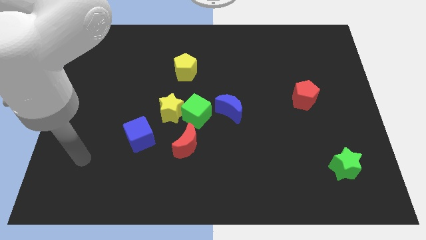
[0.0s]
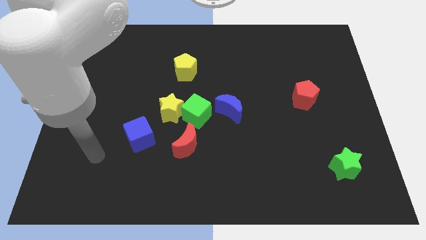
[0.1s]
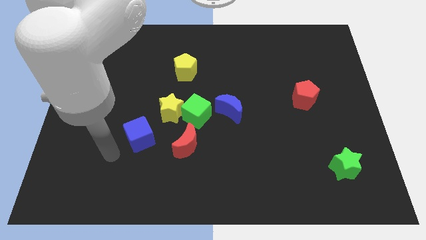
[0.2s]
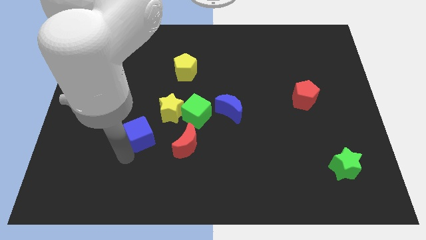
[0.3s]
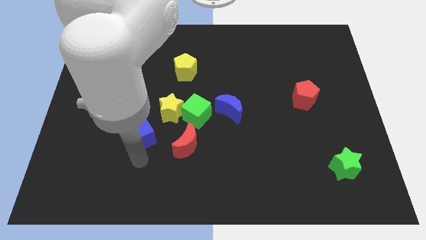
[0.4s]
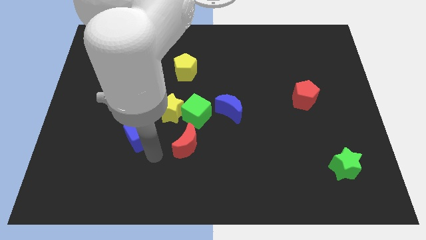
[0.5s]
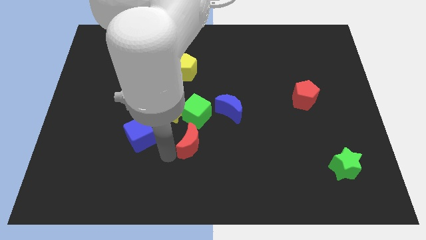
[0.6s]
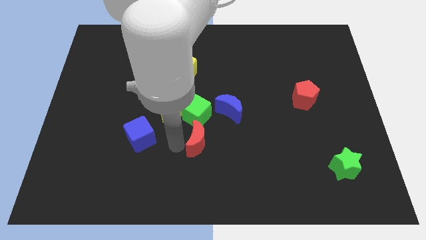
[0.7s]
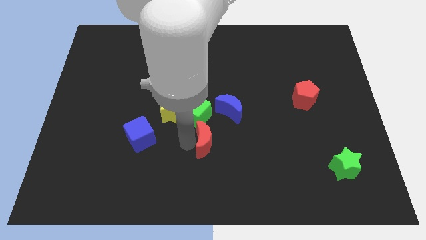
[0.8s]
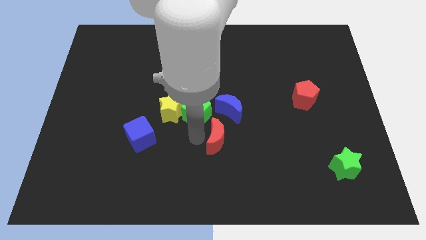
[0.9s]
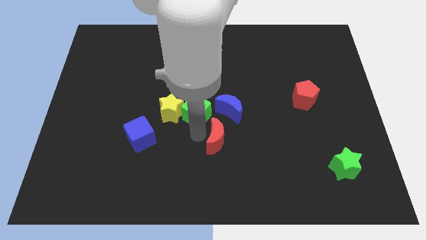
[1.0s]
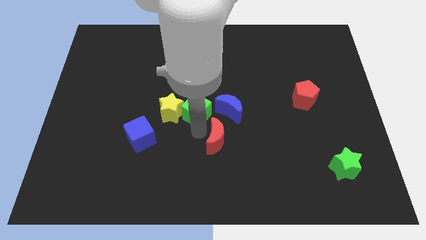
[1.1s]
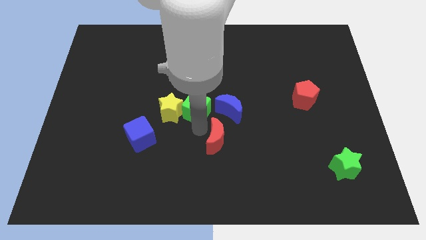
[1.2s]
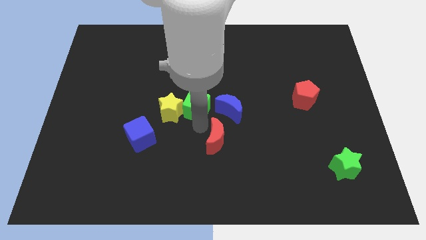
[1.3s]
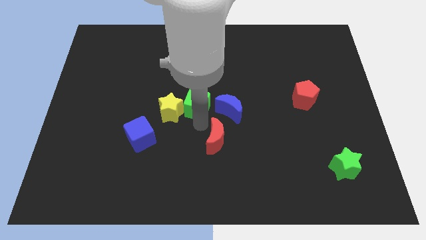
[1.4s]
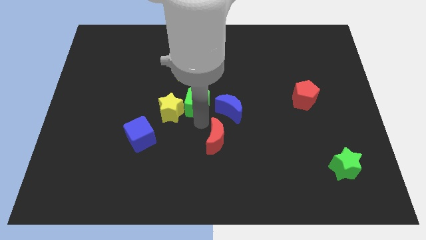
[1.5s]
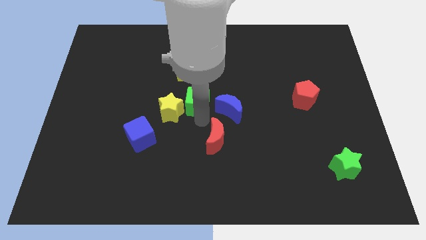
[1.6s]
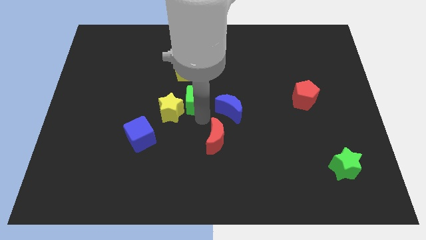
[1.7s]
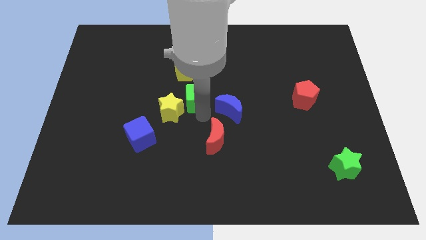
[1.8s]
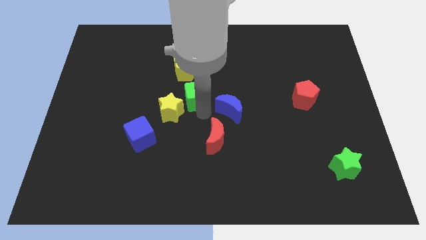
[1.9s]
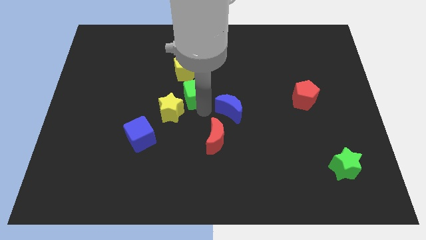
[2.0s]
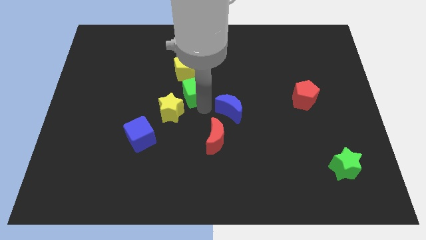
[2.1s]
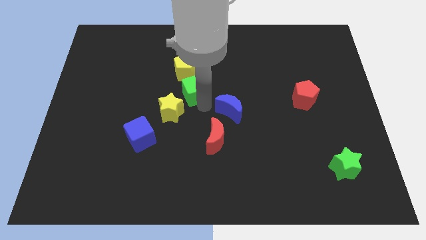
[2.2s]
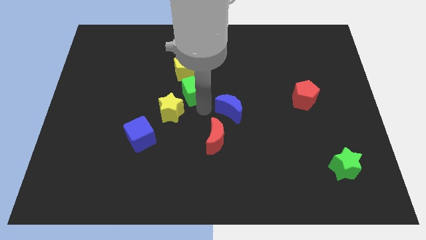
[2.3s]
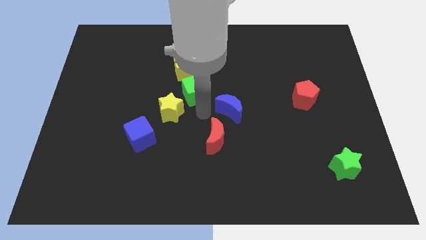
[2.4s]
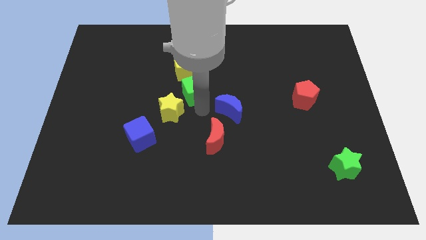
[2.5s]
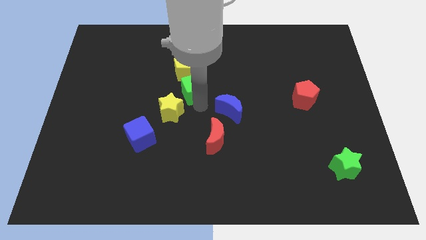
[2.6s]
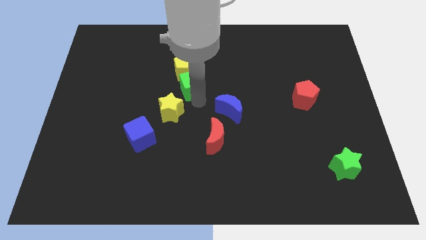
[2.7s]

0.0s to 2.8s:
pull the green cube apart from the yellow star, blue moon, and red moon

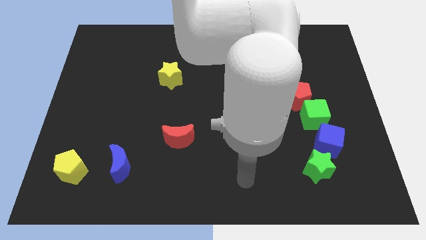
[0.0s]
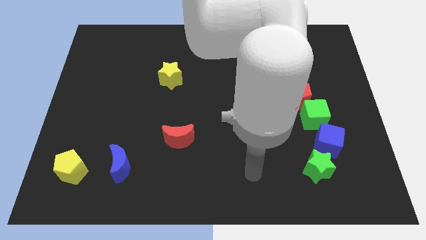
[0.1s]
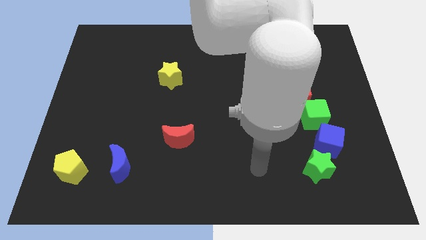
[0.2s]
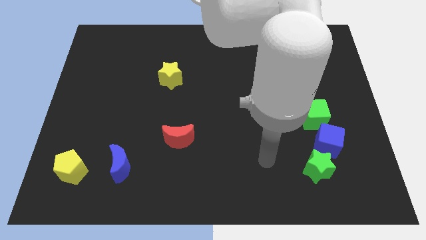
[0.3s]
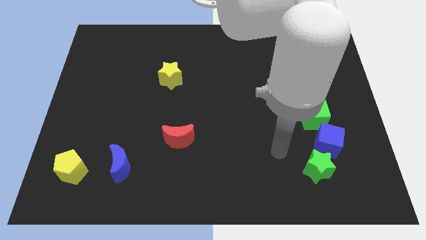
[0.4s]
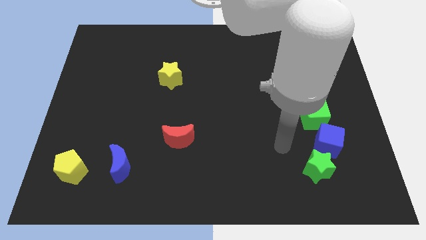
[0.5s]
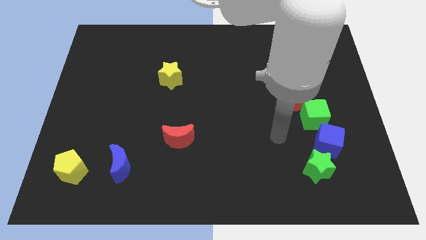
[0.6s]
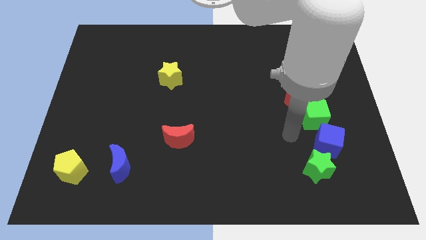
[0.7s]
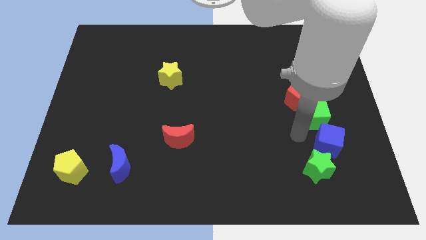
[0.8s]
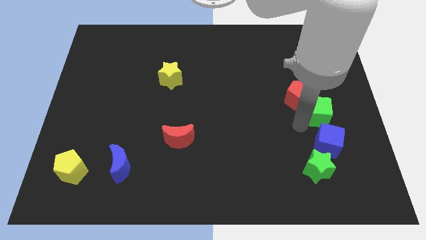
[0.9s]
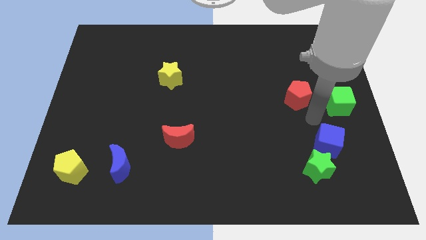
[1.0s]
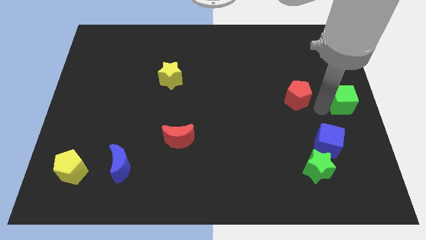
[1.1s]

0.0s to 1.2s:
separate the red pentagon from the green cube

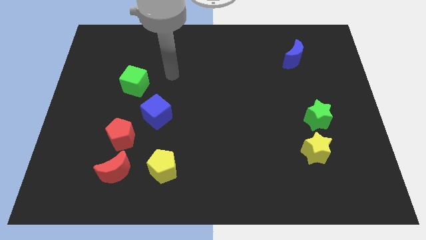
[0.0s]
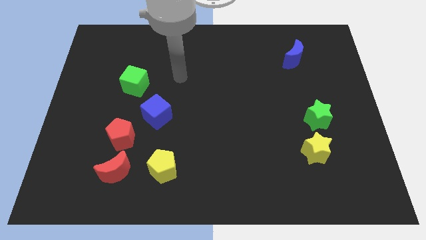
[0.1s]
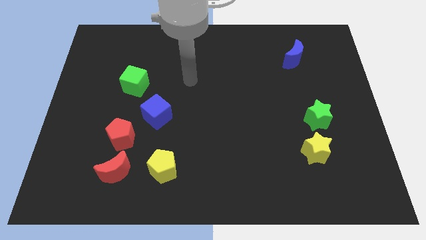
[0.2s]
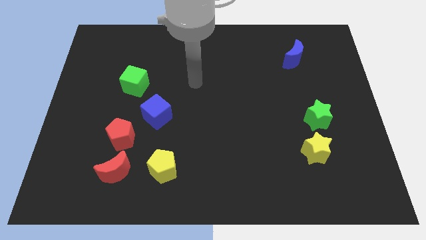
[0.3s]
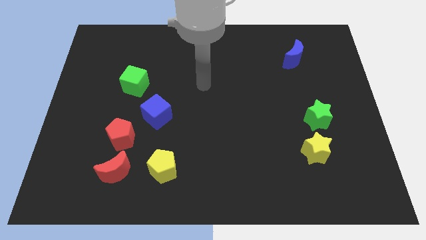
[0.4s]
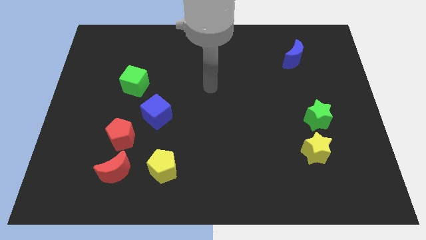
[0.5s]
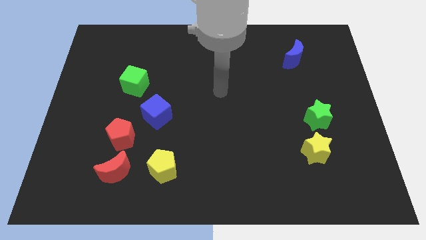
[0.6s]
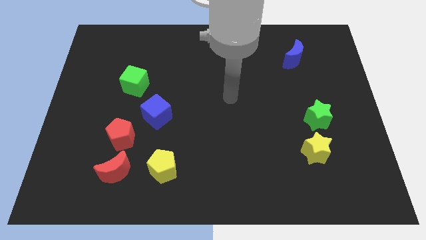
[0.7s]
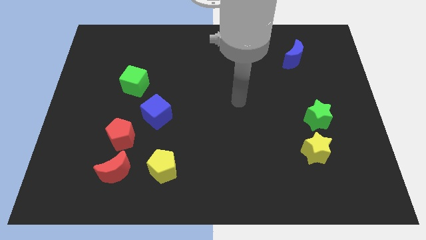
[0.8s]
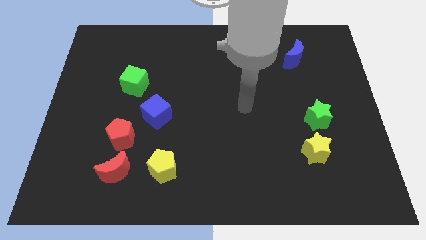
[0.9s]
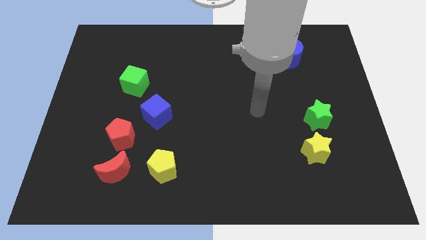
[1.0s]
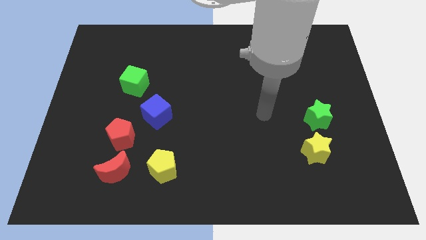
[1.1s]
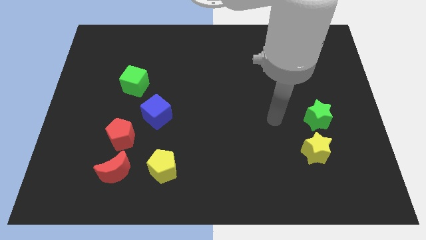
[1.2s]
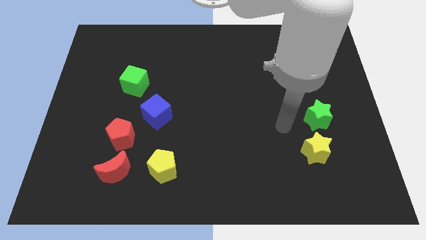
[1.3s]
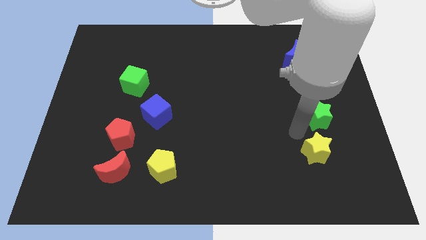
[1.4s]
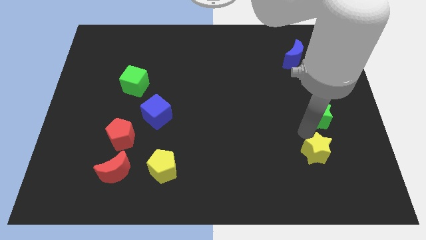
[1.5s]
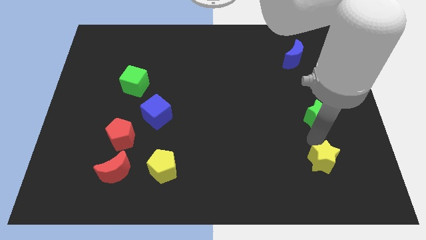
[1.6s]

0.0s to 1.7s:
pull the green star apart from the yellow star

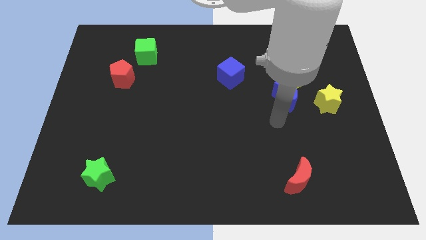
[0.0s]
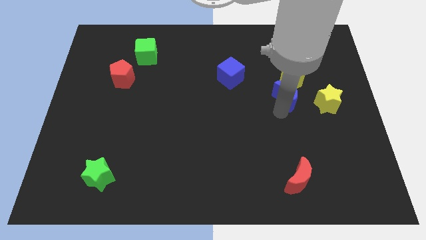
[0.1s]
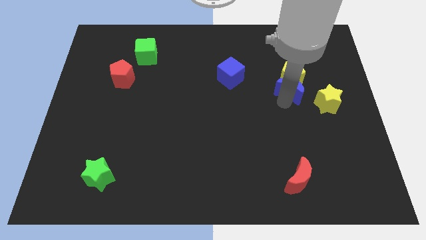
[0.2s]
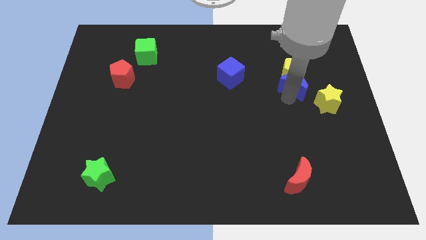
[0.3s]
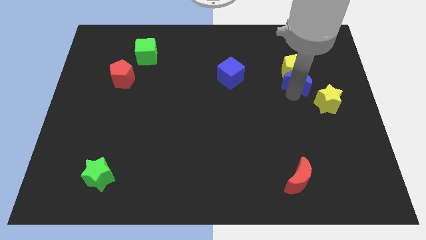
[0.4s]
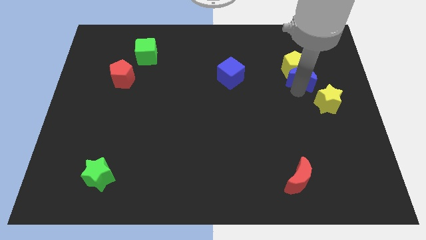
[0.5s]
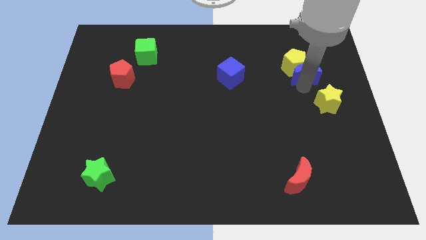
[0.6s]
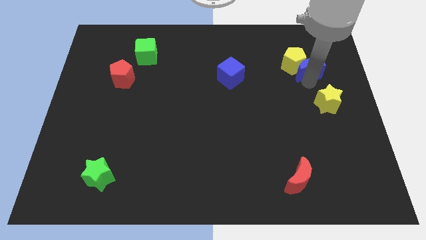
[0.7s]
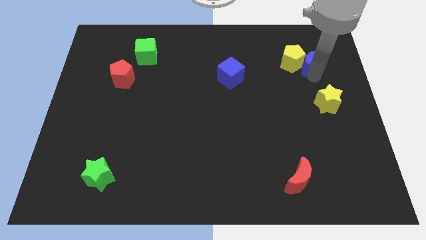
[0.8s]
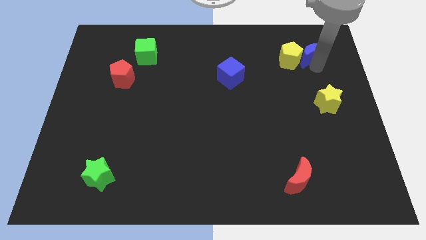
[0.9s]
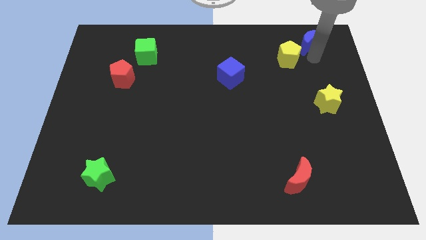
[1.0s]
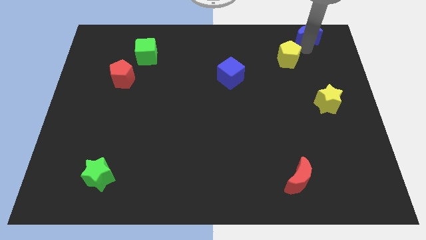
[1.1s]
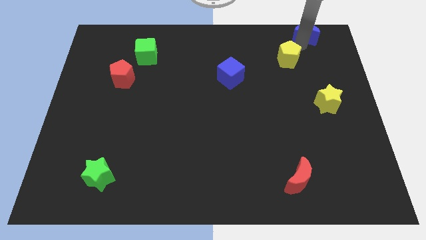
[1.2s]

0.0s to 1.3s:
separate the yellow pentagon from the blue moon

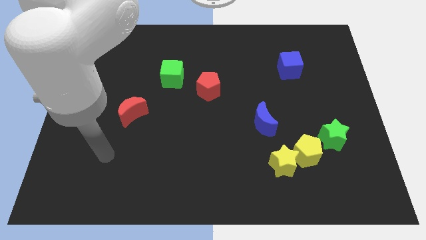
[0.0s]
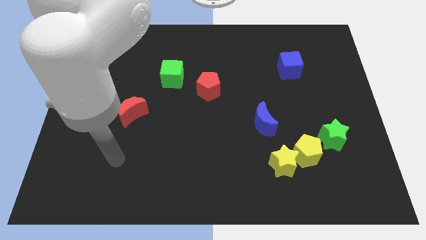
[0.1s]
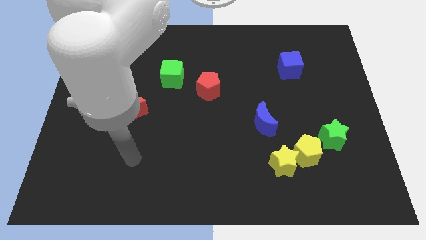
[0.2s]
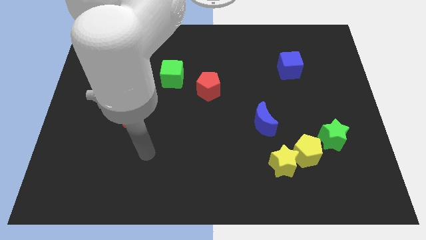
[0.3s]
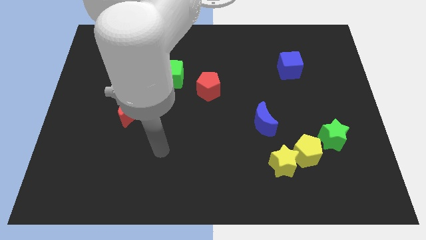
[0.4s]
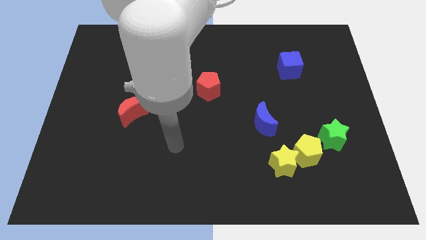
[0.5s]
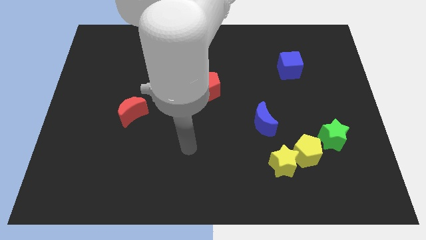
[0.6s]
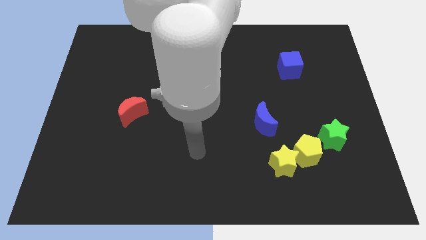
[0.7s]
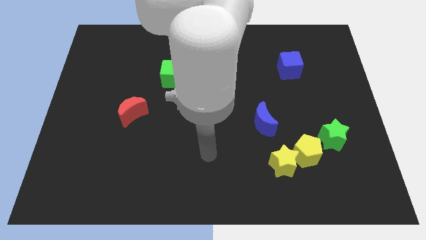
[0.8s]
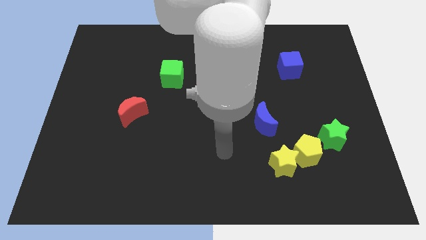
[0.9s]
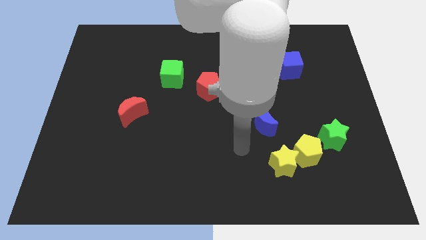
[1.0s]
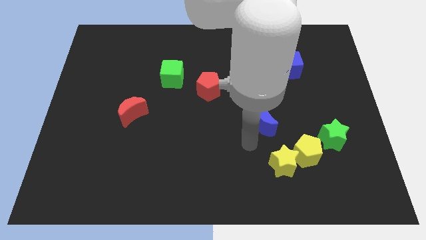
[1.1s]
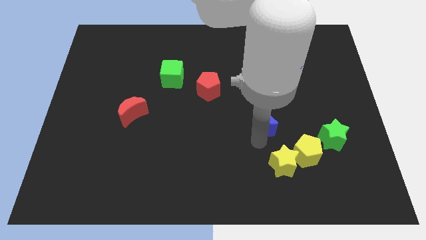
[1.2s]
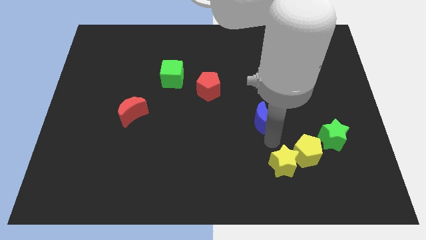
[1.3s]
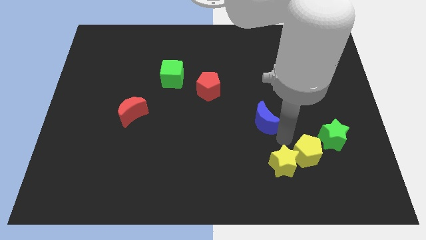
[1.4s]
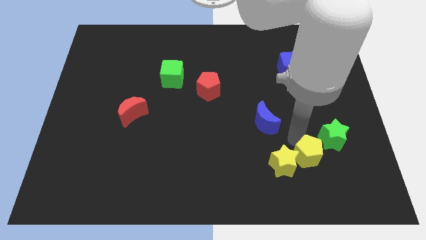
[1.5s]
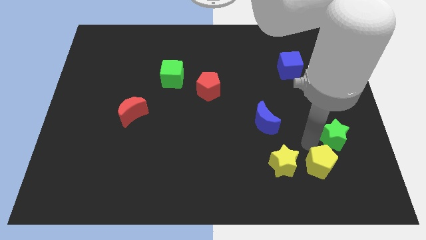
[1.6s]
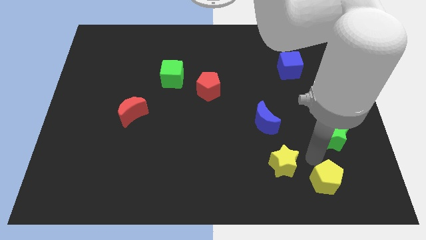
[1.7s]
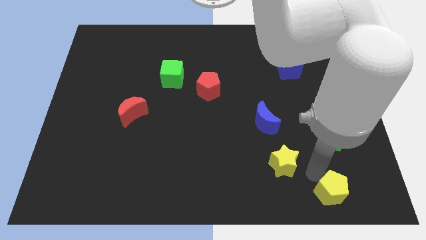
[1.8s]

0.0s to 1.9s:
separate the yellow star from the yellow pentagon

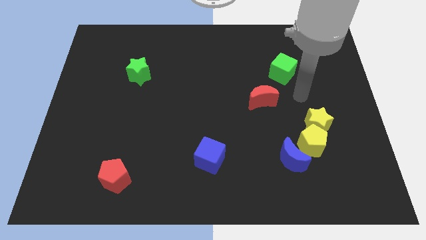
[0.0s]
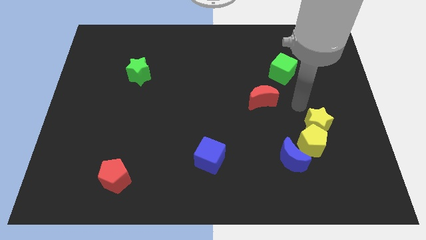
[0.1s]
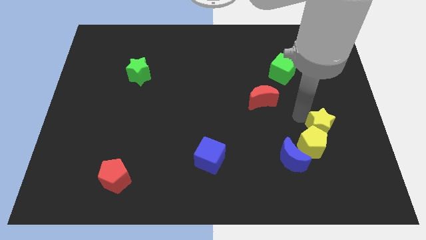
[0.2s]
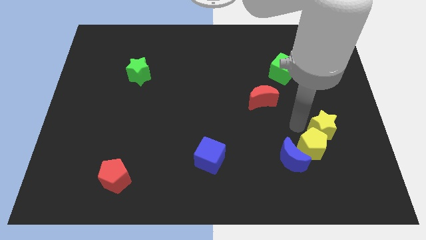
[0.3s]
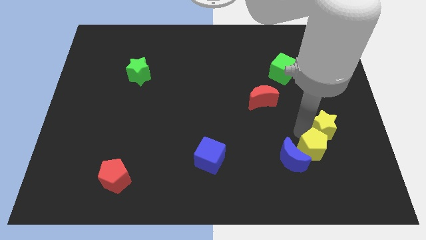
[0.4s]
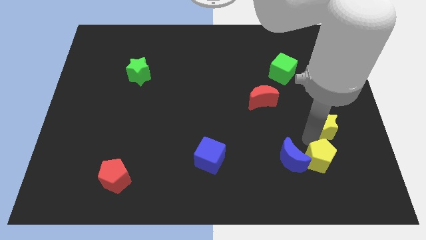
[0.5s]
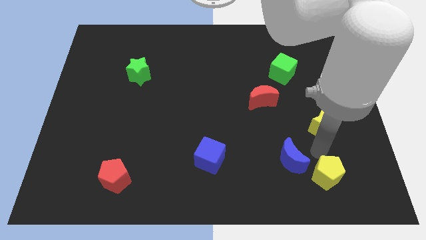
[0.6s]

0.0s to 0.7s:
pull the yellow star apart from the yellow pentagon
